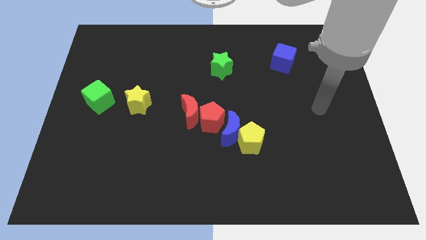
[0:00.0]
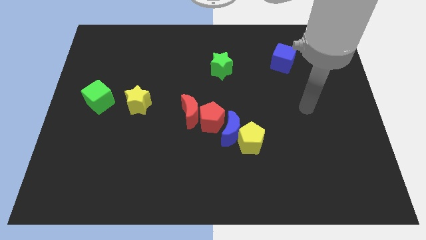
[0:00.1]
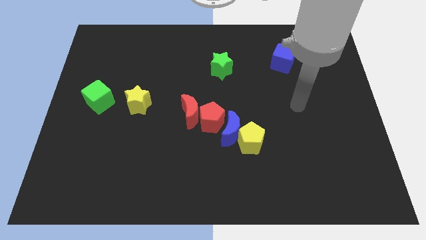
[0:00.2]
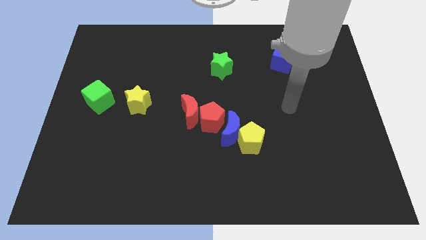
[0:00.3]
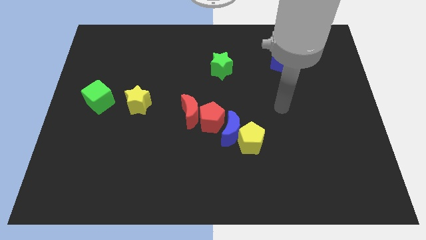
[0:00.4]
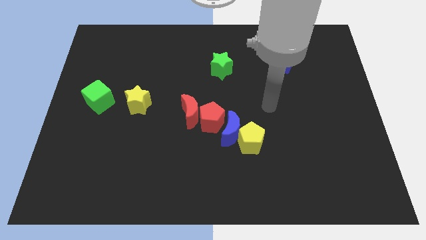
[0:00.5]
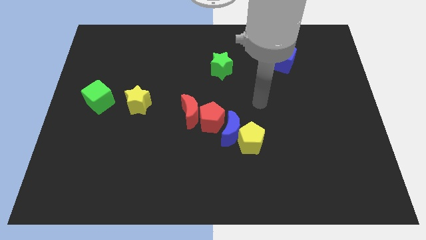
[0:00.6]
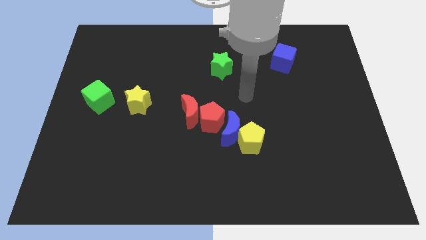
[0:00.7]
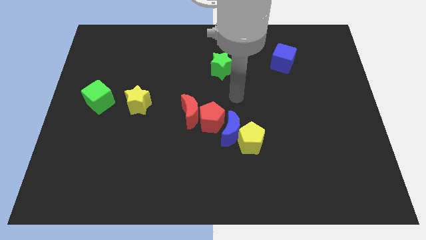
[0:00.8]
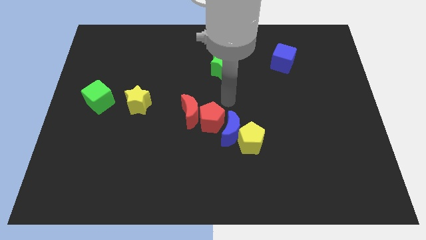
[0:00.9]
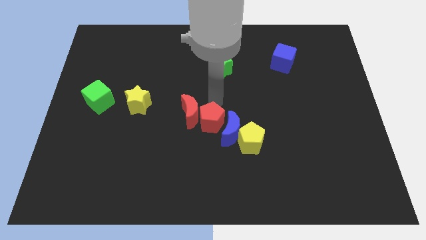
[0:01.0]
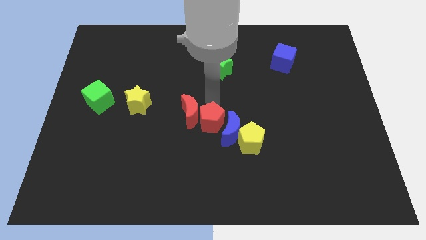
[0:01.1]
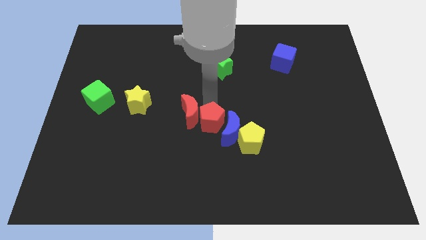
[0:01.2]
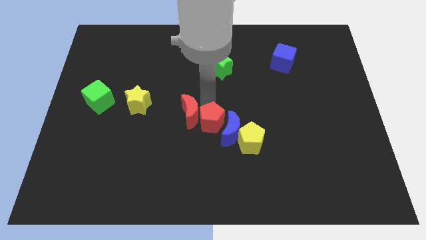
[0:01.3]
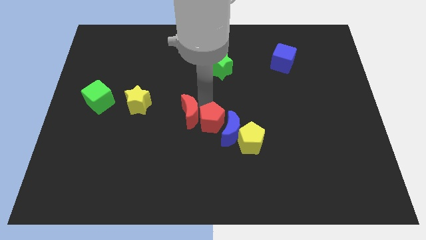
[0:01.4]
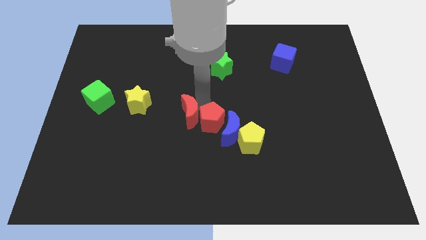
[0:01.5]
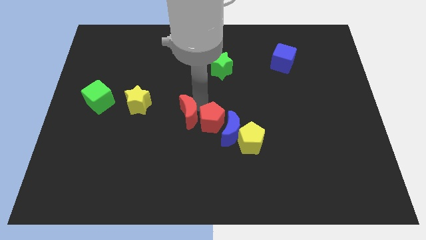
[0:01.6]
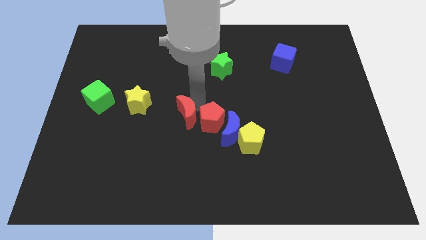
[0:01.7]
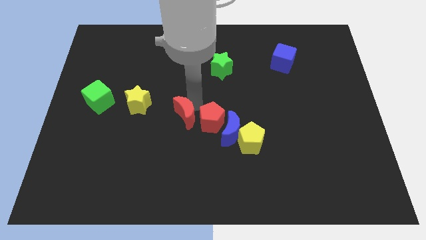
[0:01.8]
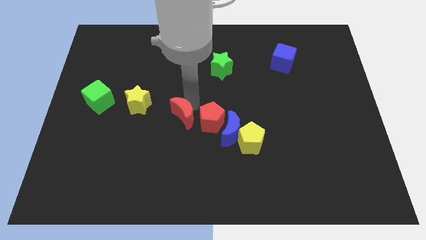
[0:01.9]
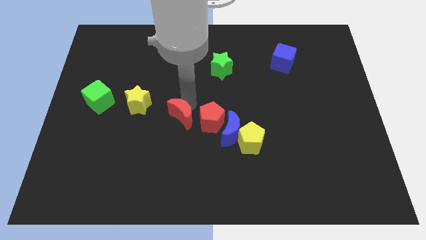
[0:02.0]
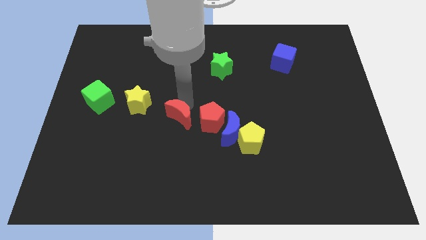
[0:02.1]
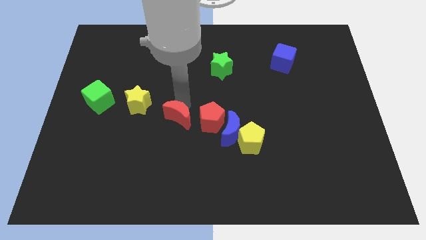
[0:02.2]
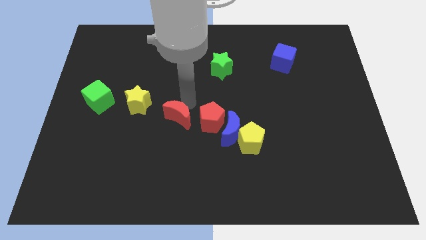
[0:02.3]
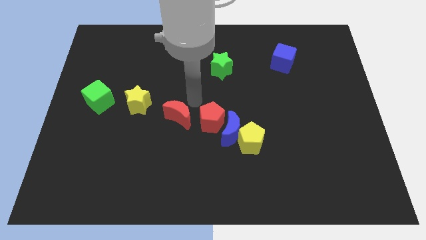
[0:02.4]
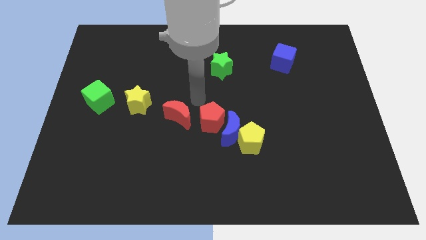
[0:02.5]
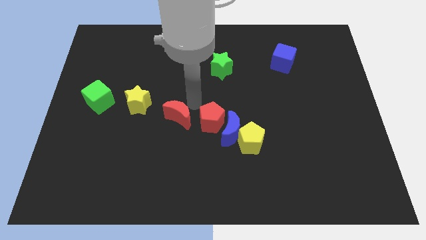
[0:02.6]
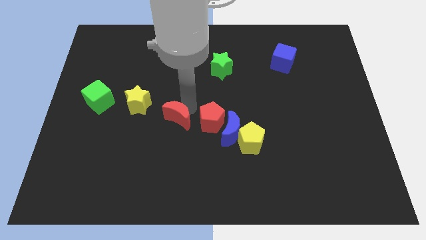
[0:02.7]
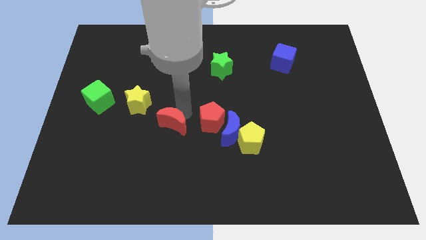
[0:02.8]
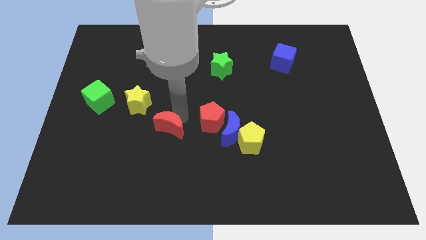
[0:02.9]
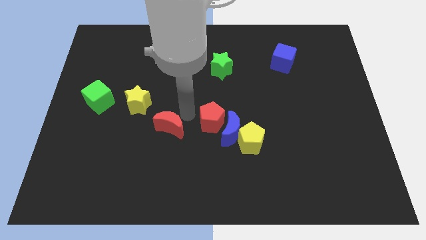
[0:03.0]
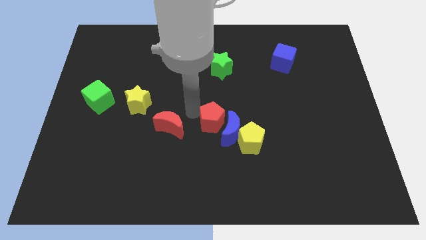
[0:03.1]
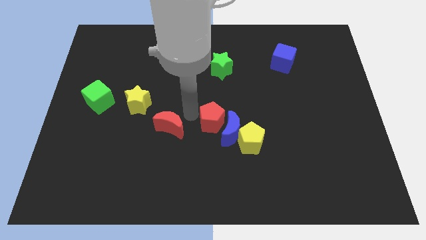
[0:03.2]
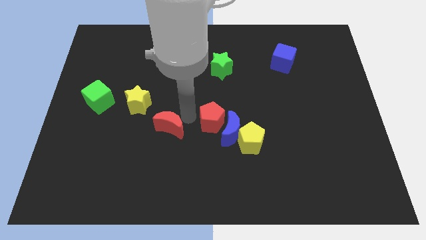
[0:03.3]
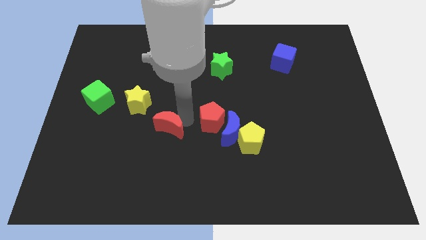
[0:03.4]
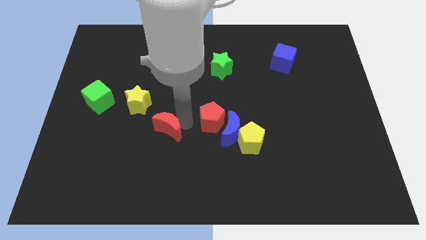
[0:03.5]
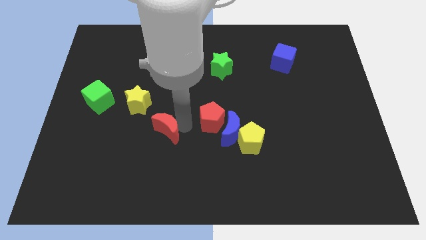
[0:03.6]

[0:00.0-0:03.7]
slide the red moon a bit diagonally downwards and to the left

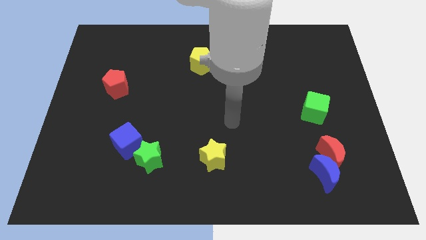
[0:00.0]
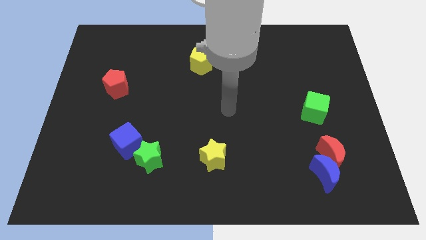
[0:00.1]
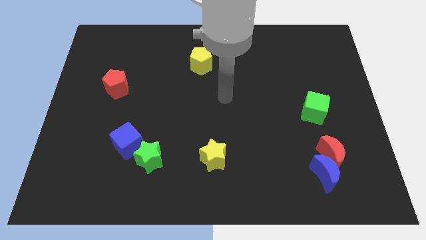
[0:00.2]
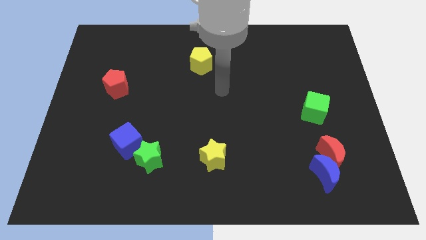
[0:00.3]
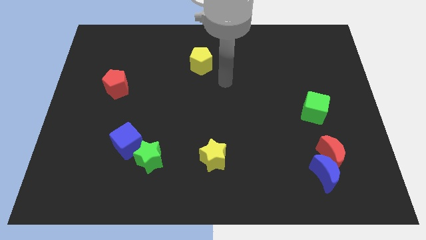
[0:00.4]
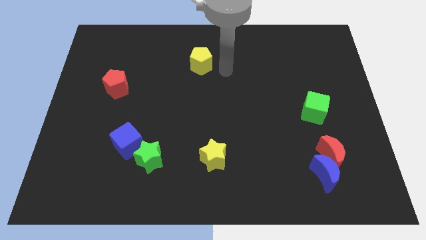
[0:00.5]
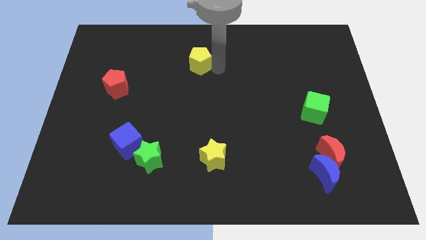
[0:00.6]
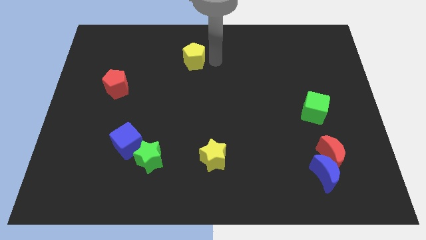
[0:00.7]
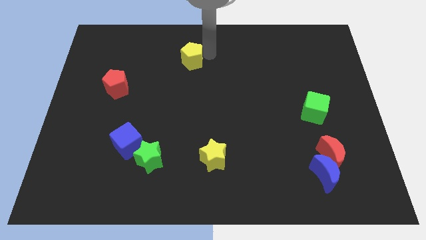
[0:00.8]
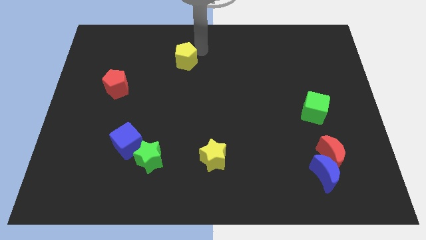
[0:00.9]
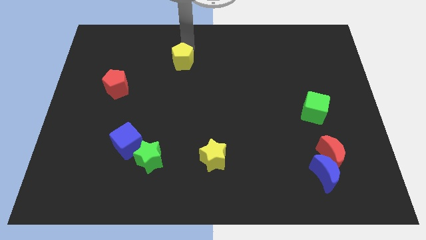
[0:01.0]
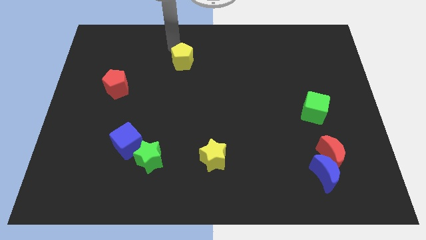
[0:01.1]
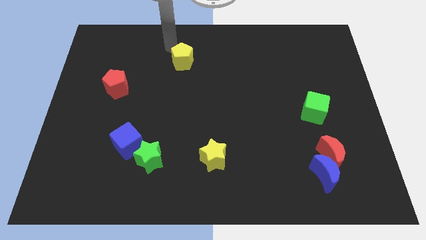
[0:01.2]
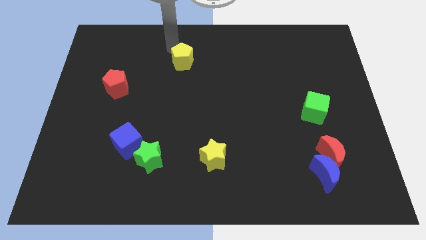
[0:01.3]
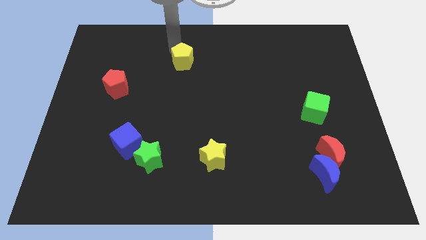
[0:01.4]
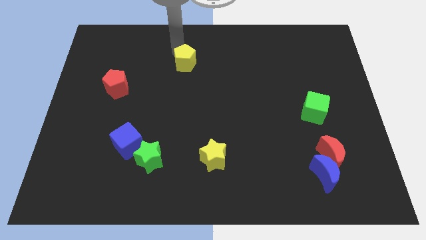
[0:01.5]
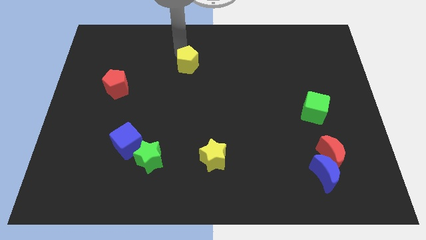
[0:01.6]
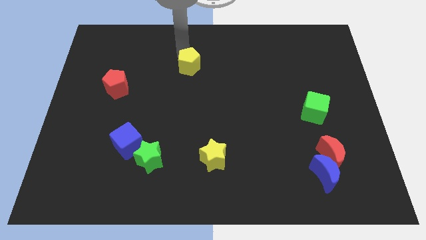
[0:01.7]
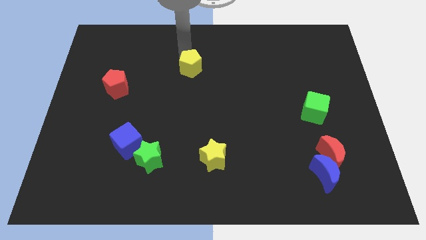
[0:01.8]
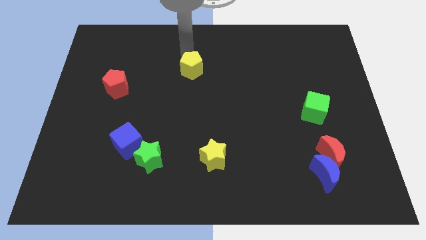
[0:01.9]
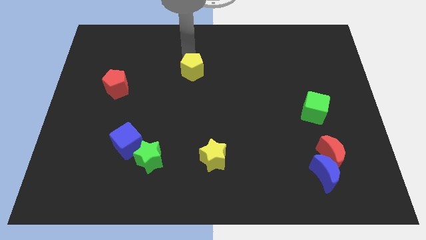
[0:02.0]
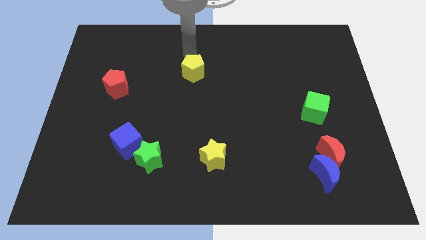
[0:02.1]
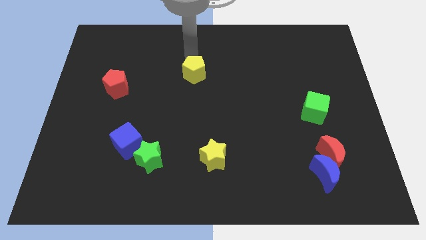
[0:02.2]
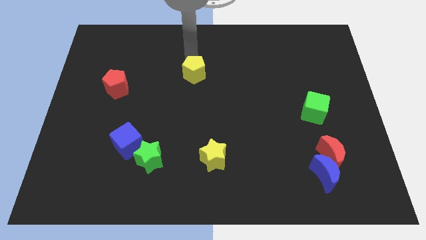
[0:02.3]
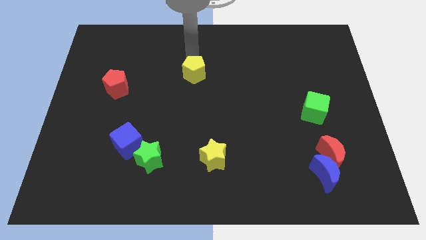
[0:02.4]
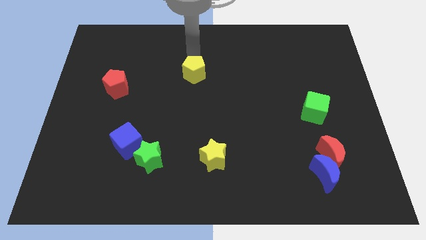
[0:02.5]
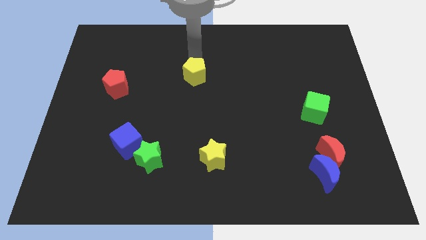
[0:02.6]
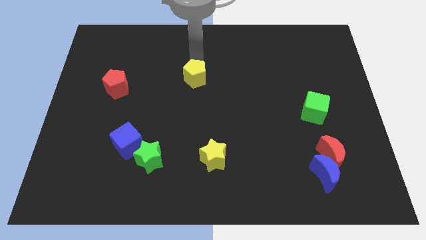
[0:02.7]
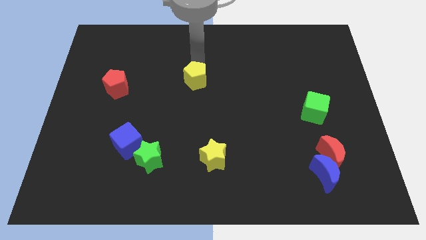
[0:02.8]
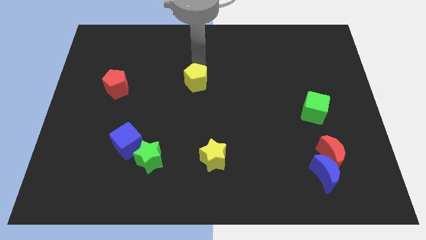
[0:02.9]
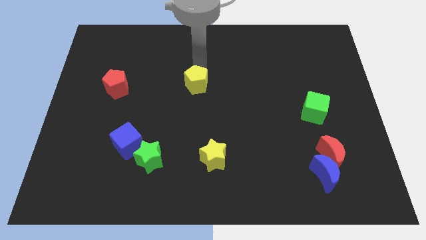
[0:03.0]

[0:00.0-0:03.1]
slide the yellow pentagon down a little

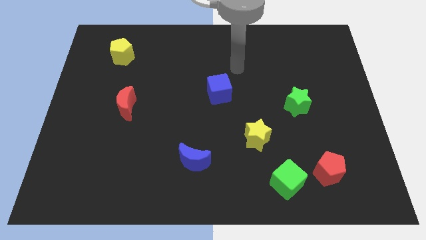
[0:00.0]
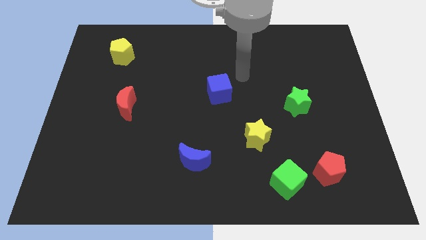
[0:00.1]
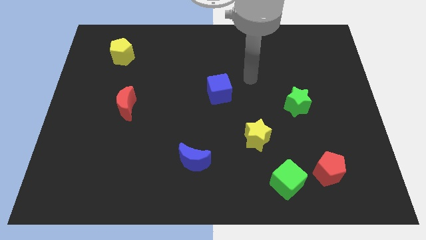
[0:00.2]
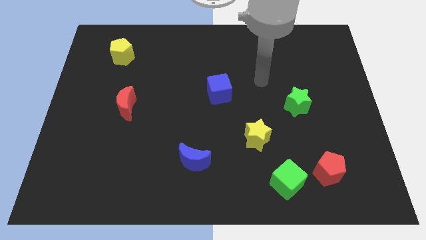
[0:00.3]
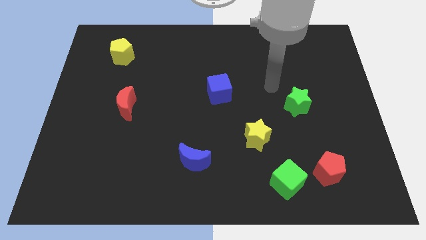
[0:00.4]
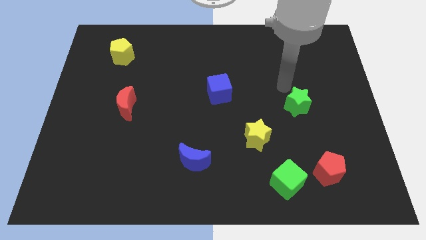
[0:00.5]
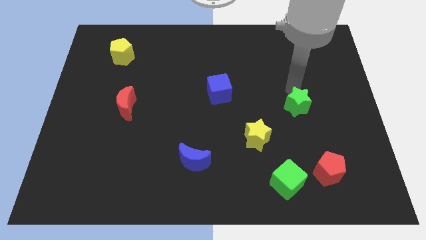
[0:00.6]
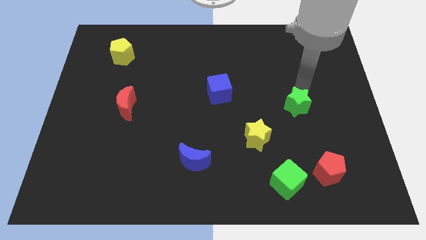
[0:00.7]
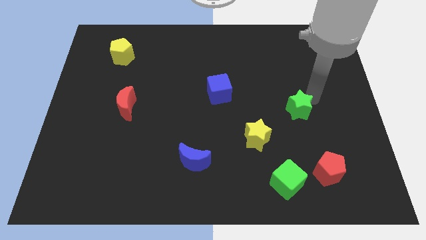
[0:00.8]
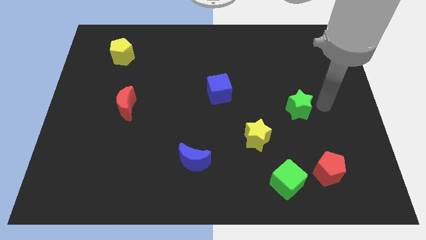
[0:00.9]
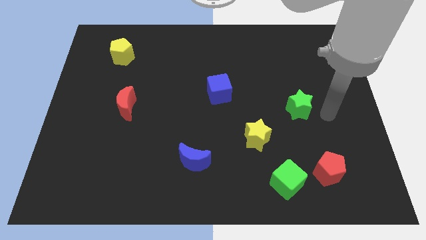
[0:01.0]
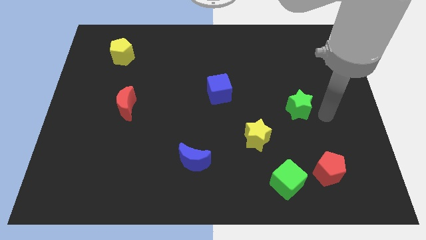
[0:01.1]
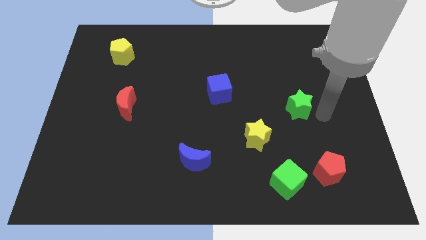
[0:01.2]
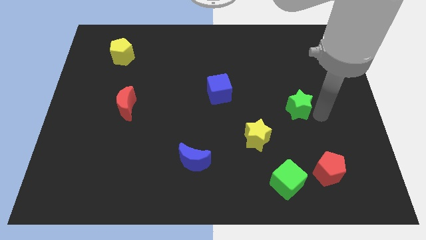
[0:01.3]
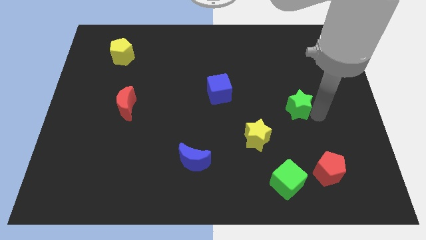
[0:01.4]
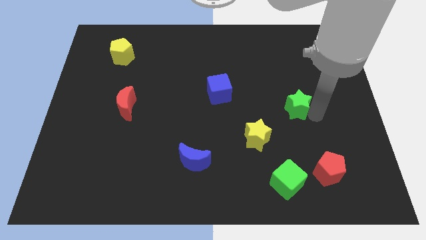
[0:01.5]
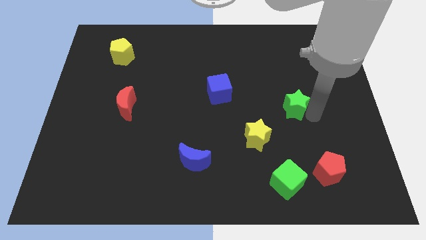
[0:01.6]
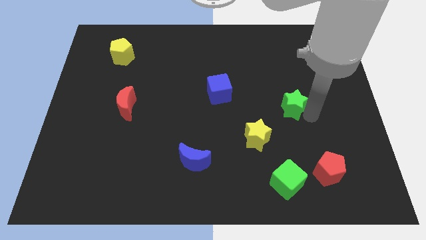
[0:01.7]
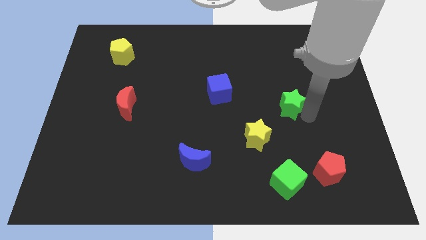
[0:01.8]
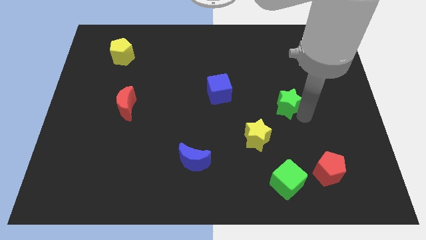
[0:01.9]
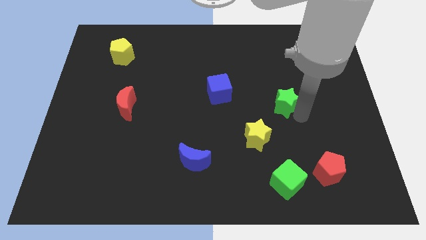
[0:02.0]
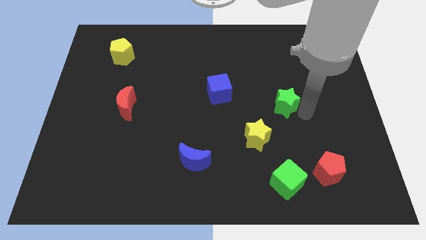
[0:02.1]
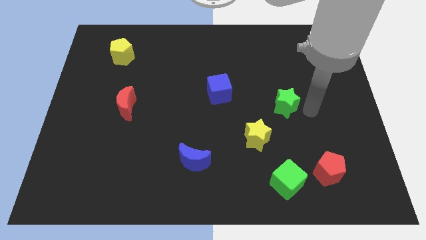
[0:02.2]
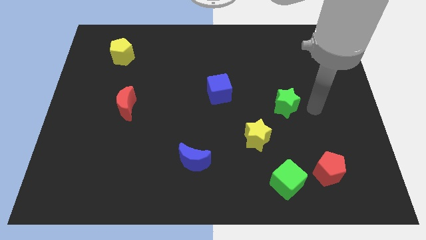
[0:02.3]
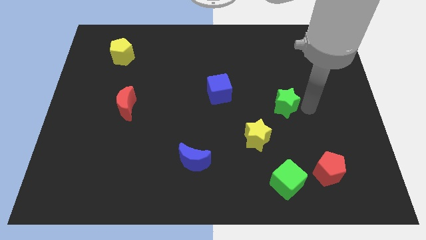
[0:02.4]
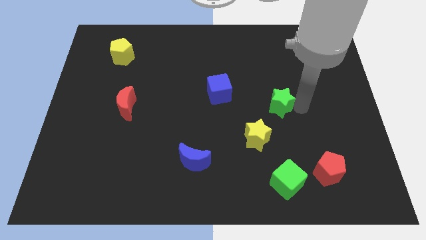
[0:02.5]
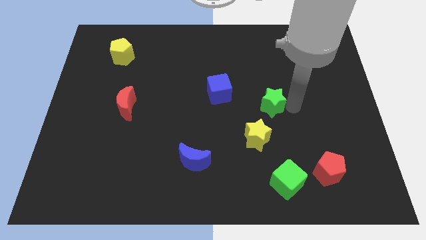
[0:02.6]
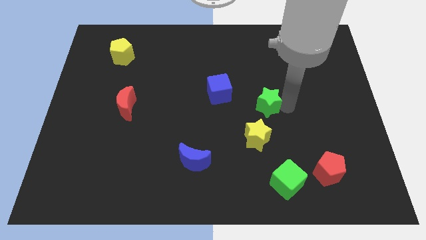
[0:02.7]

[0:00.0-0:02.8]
move the green star to the left somewhat
